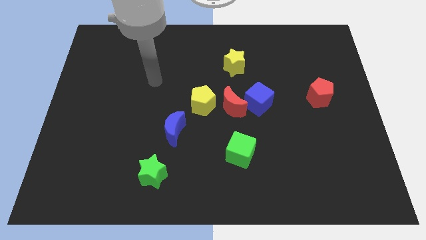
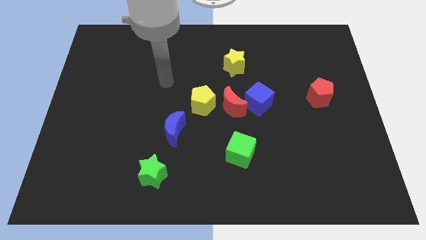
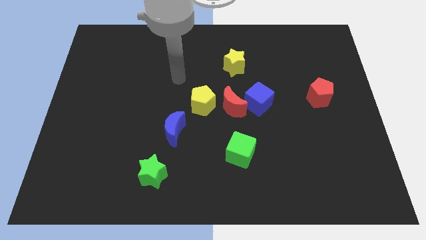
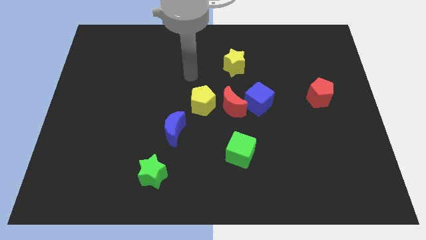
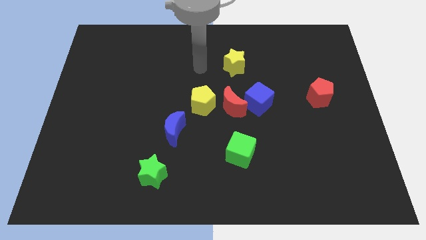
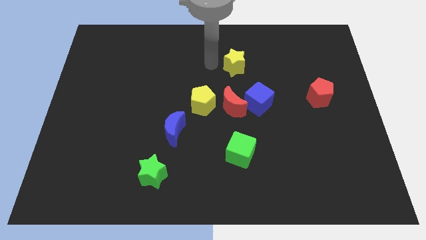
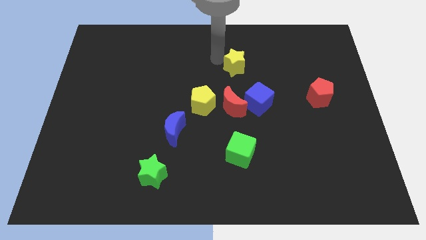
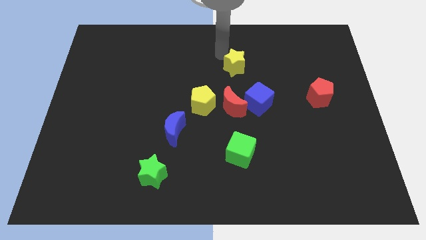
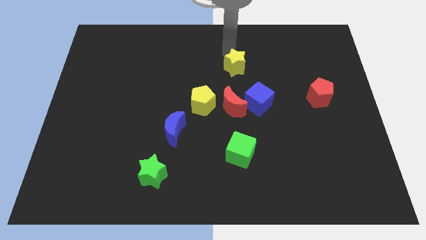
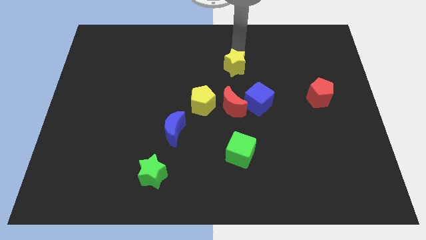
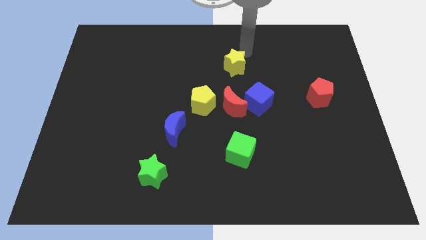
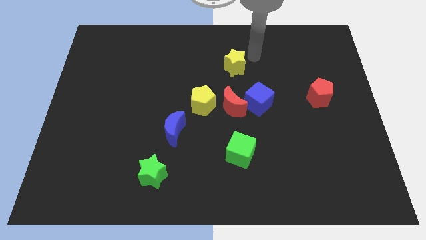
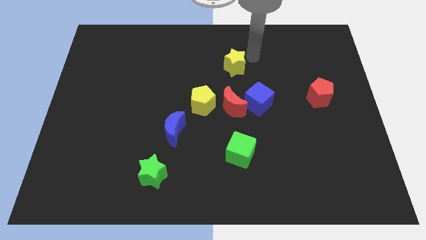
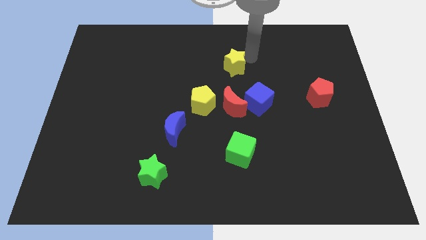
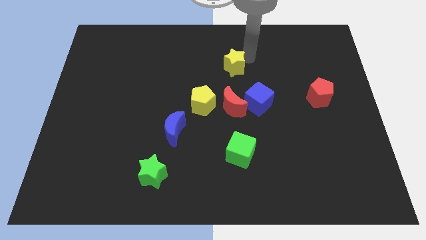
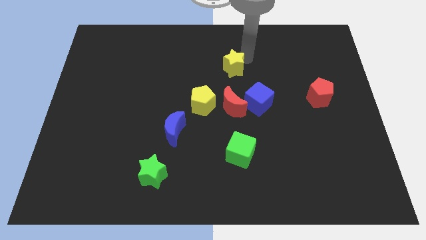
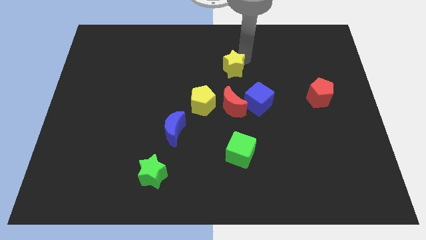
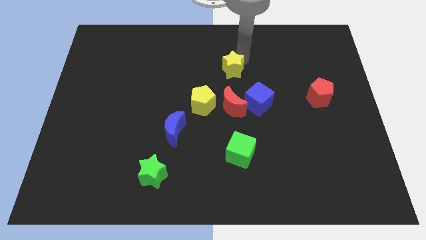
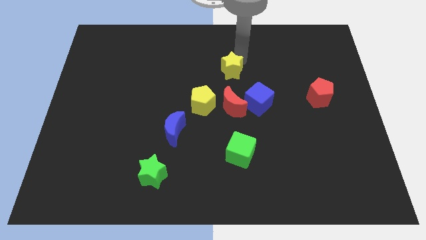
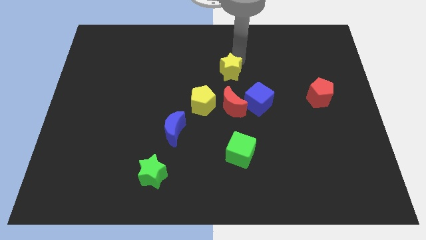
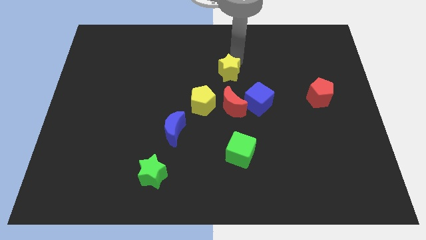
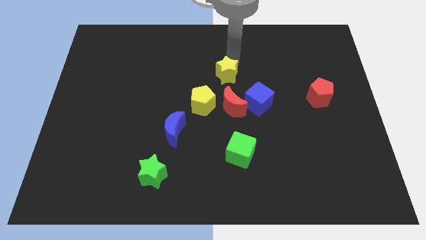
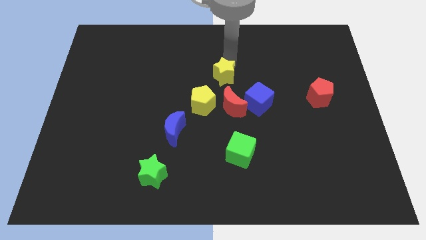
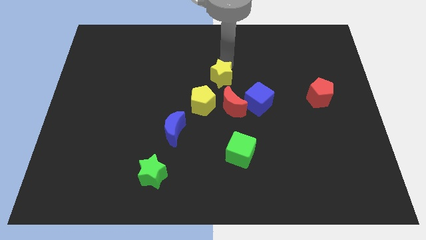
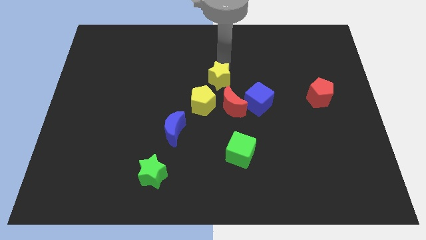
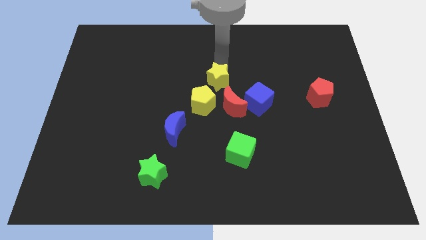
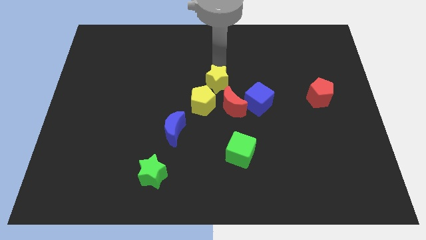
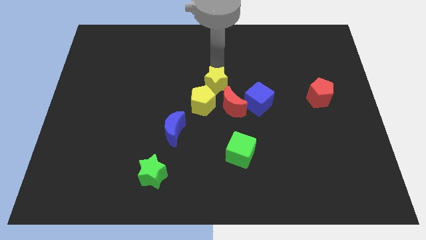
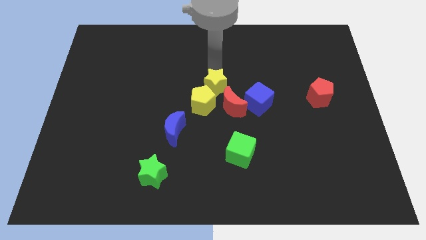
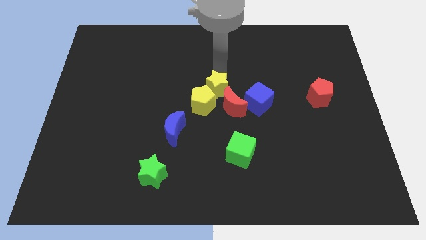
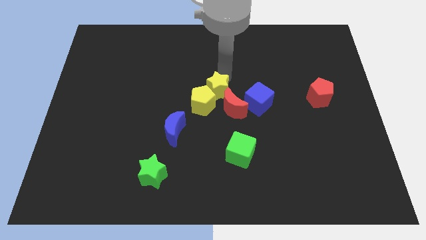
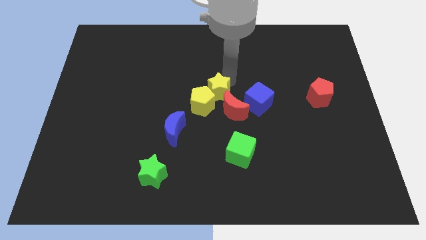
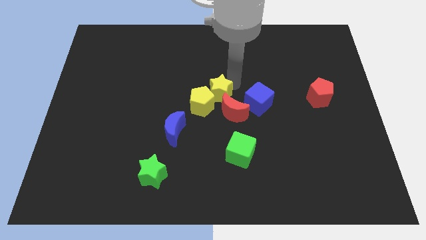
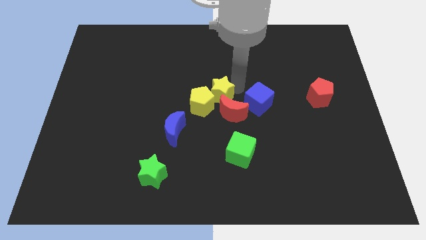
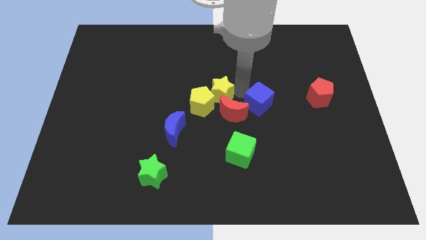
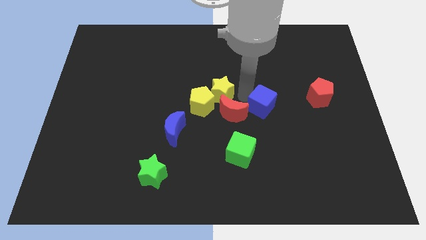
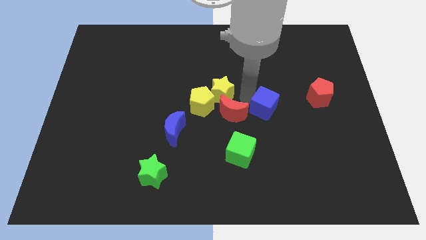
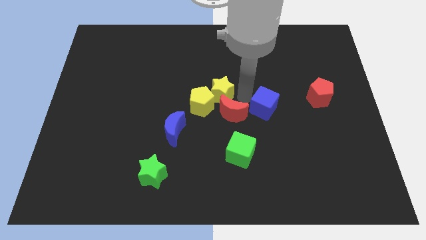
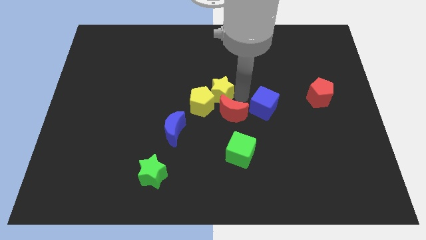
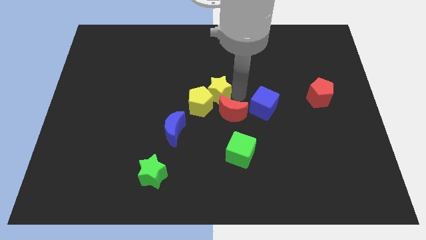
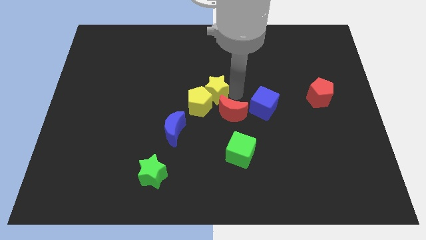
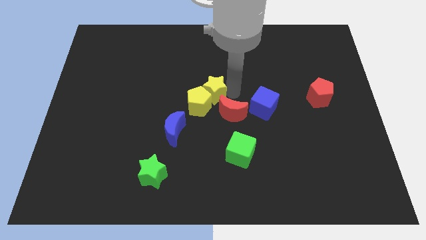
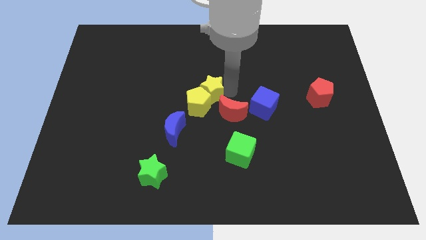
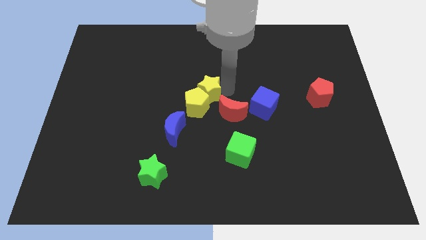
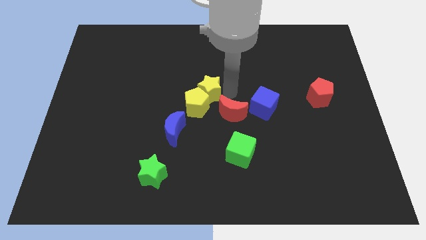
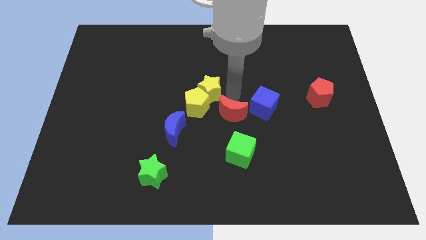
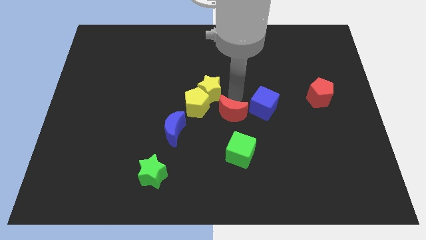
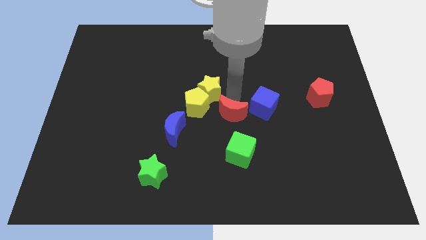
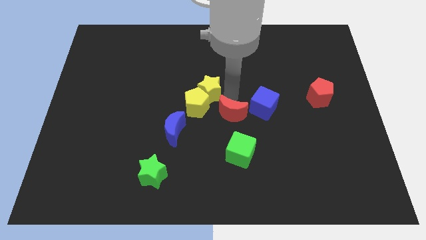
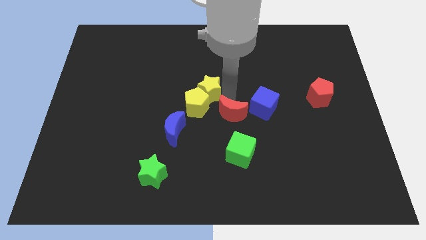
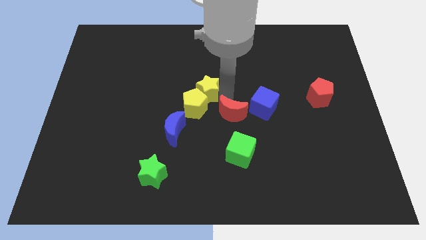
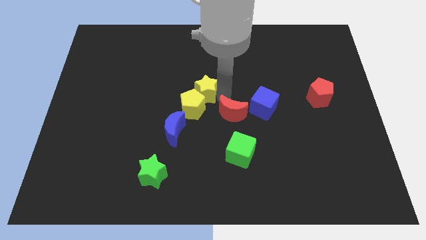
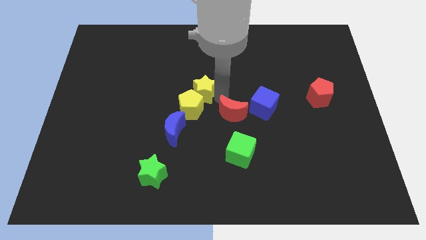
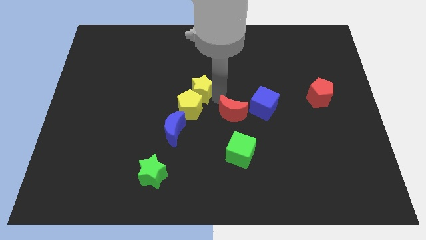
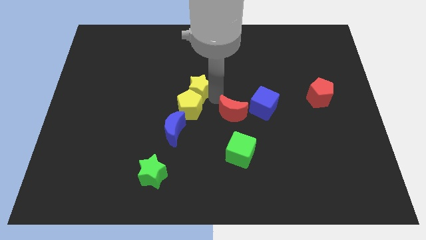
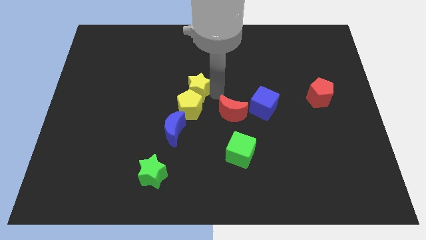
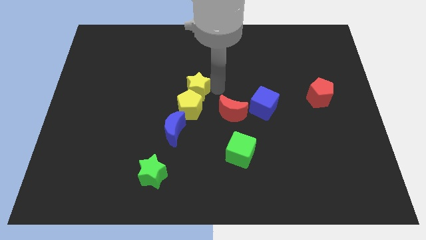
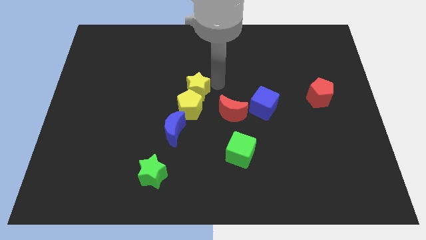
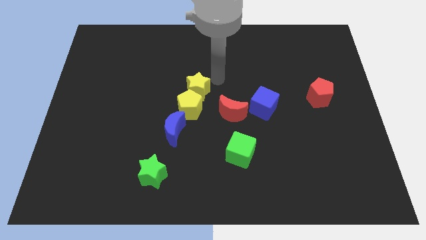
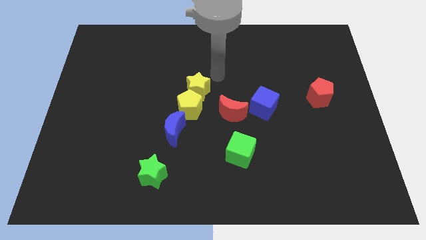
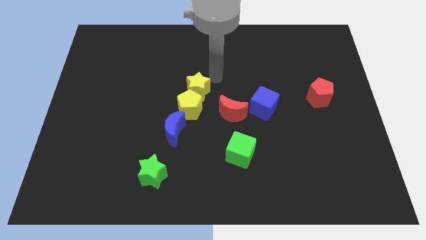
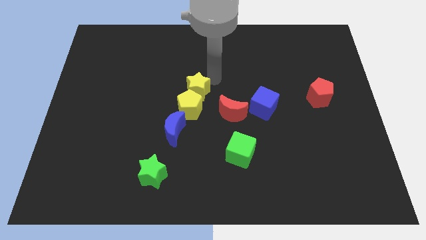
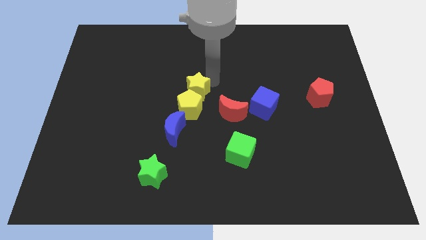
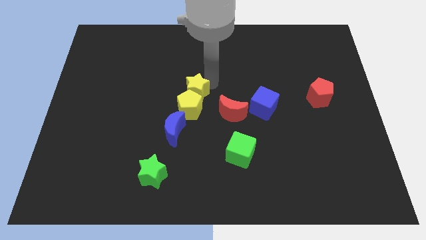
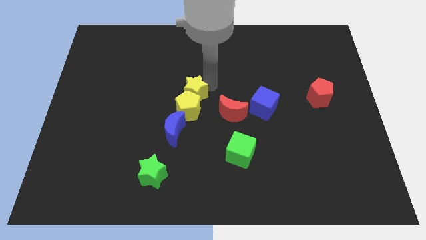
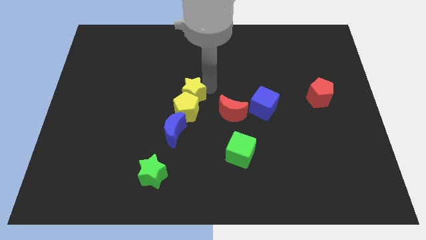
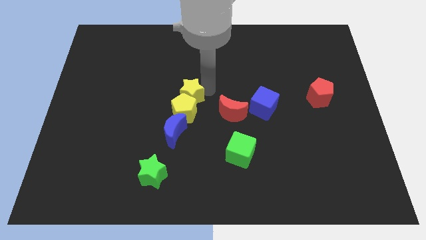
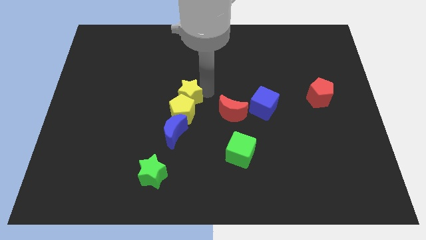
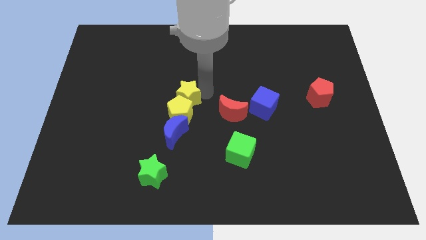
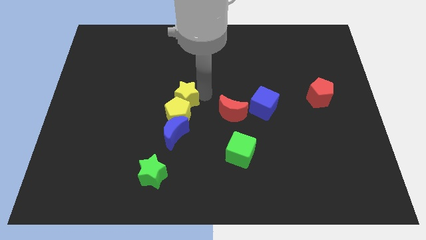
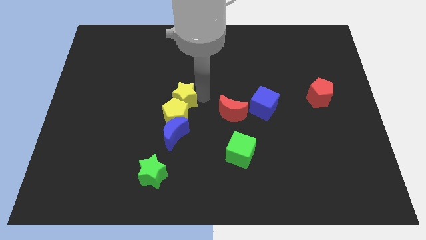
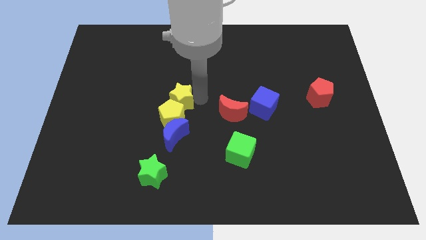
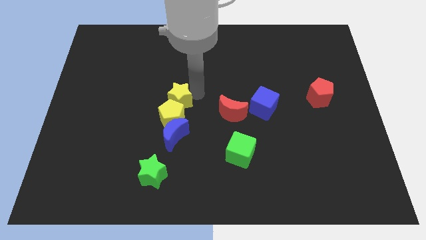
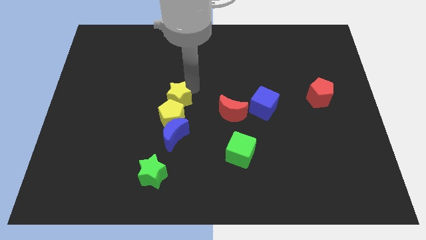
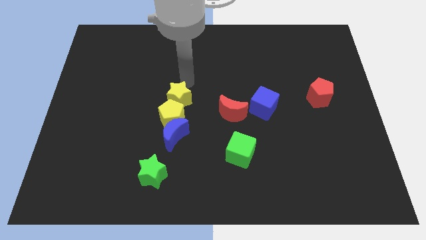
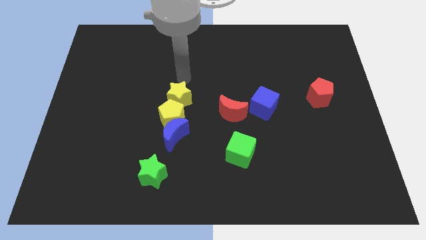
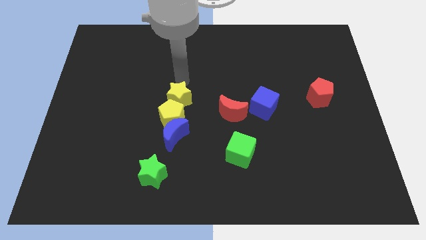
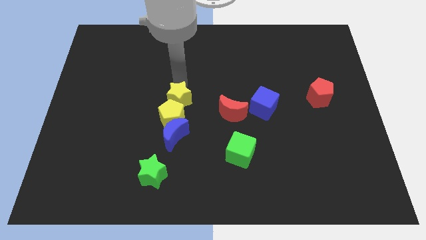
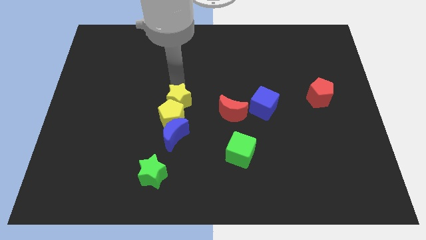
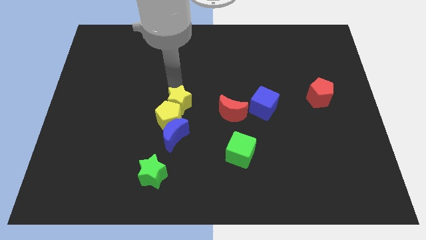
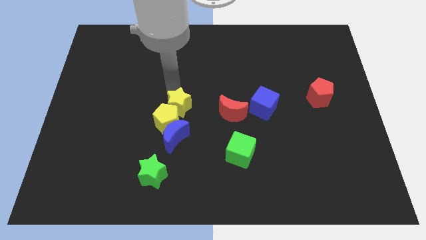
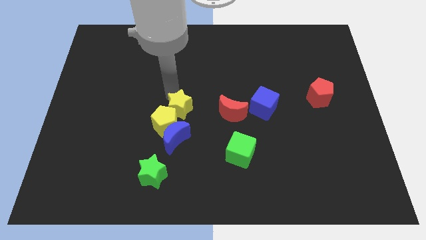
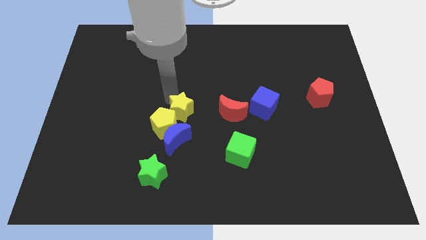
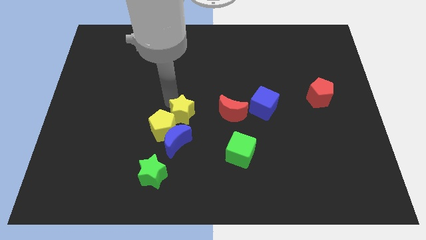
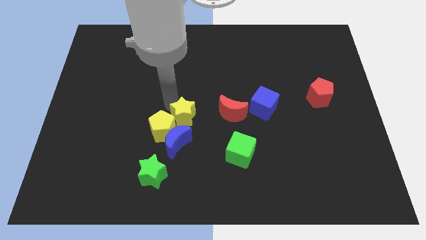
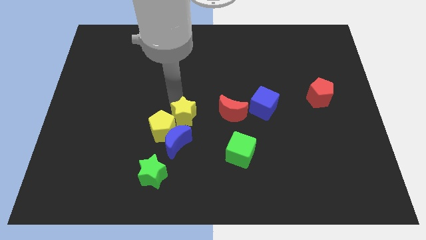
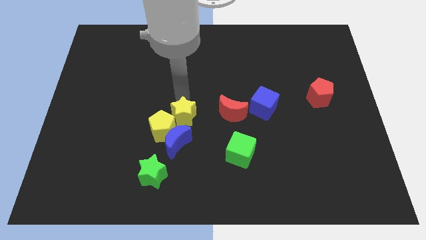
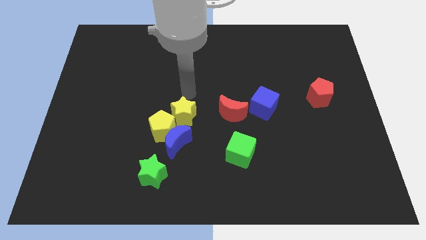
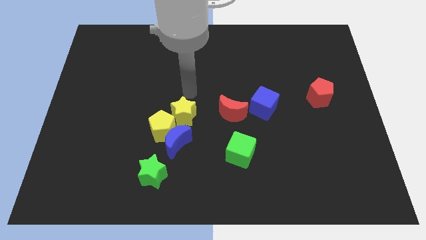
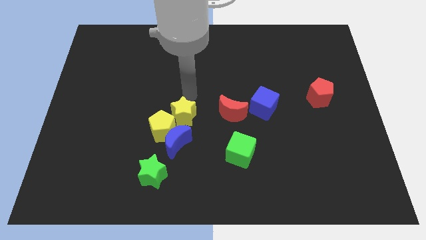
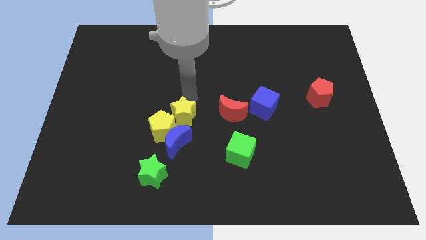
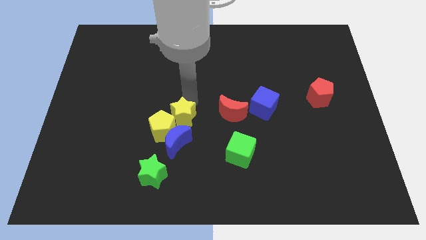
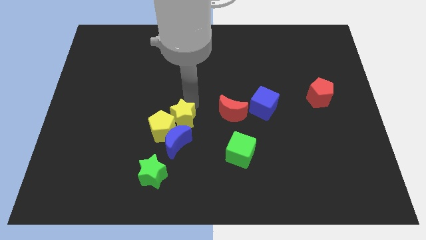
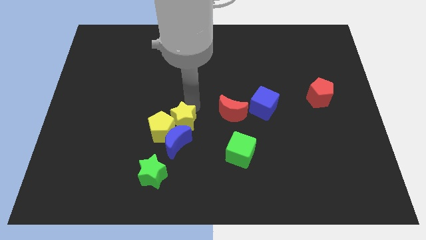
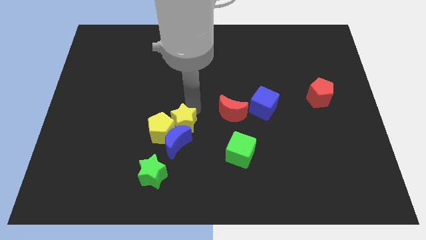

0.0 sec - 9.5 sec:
put the yellow star next to the blue moon
